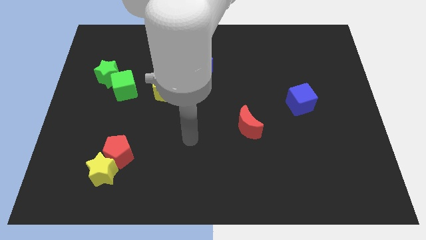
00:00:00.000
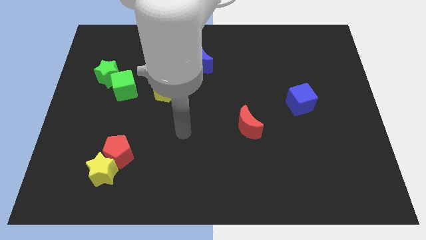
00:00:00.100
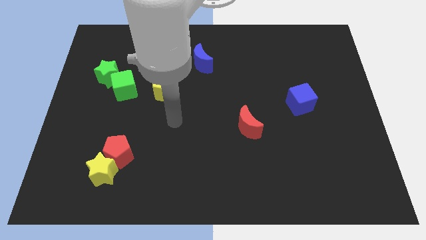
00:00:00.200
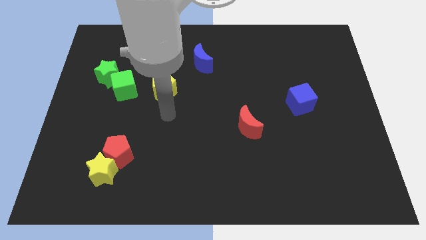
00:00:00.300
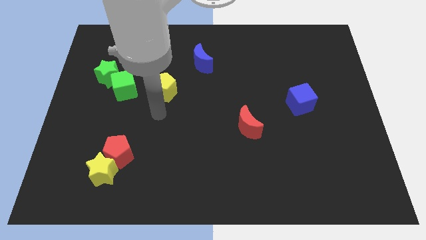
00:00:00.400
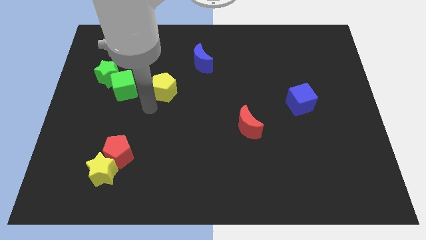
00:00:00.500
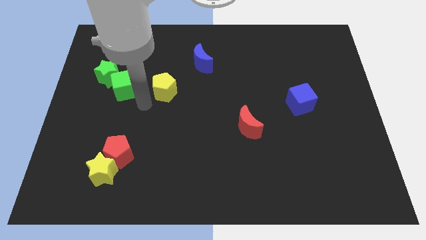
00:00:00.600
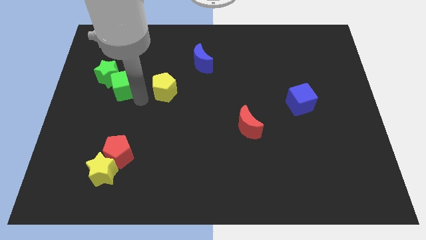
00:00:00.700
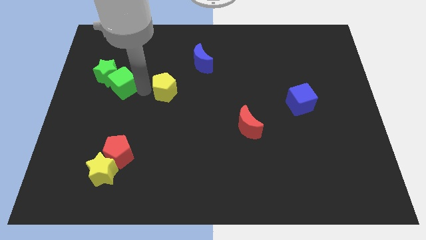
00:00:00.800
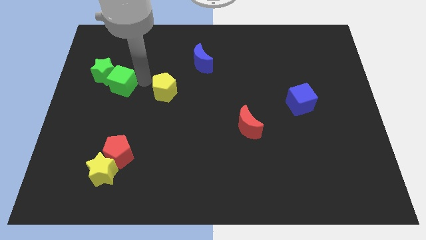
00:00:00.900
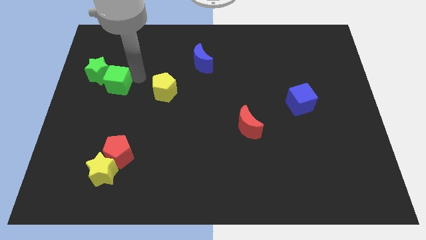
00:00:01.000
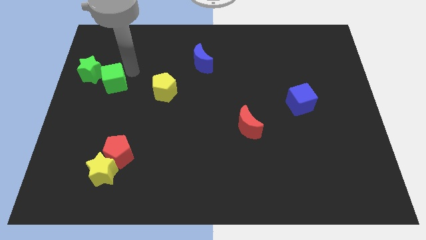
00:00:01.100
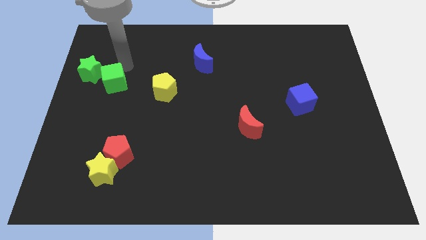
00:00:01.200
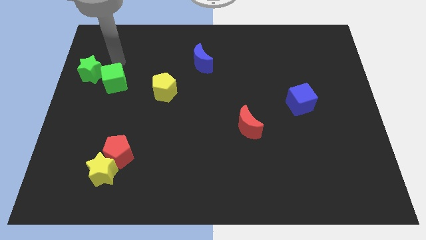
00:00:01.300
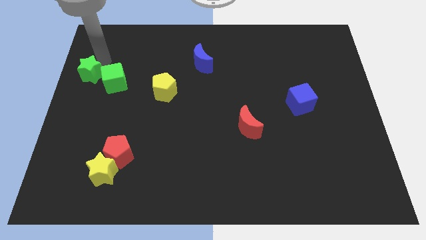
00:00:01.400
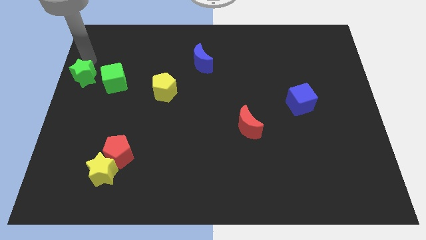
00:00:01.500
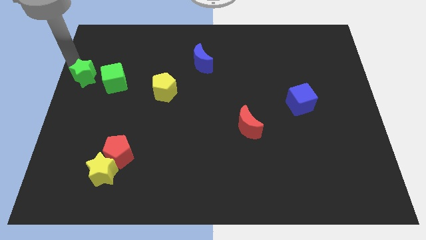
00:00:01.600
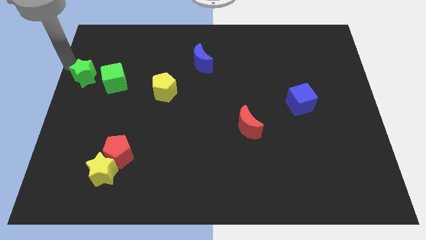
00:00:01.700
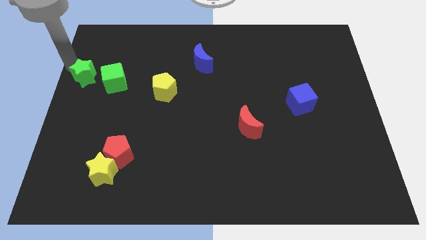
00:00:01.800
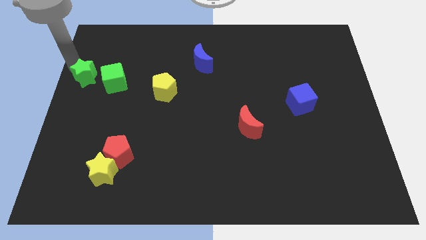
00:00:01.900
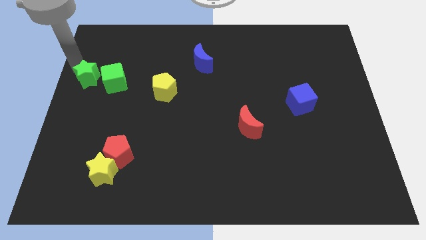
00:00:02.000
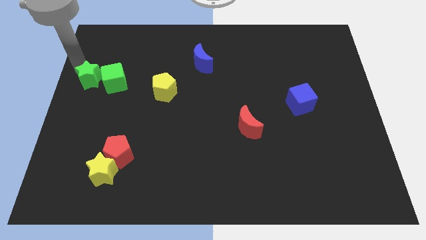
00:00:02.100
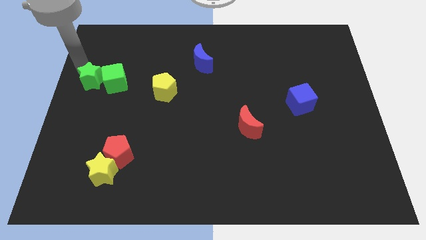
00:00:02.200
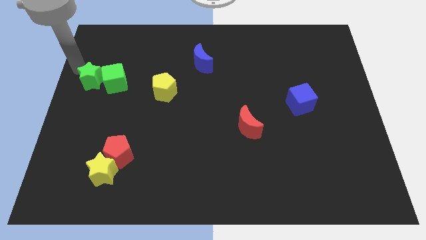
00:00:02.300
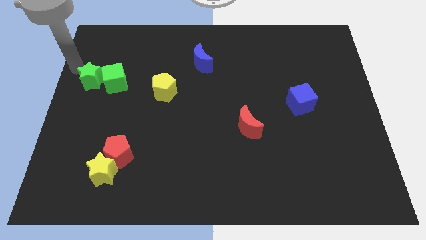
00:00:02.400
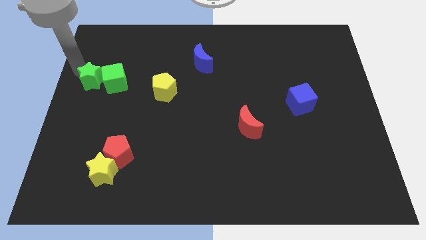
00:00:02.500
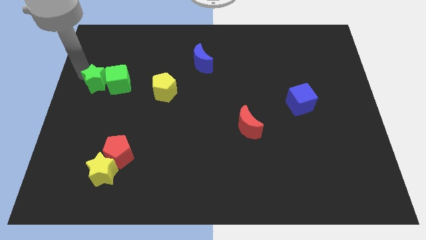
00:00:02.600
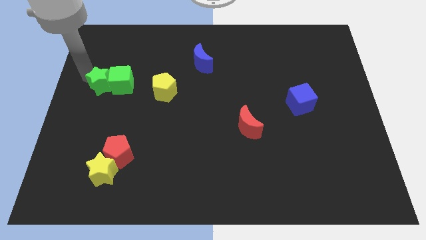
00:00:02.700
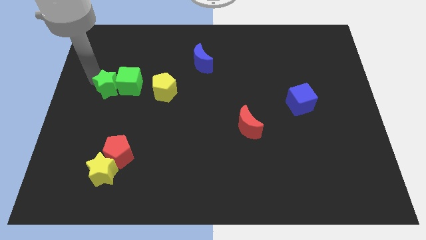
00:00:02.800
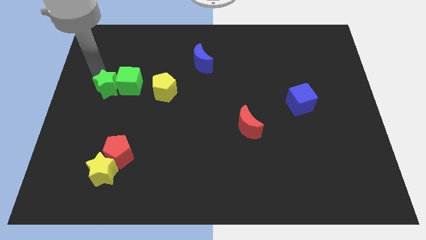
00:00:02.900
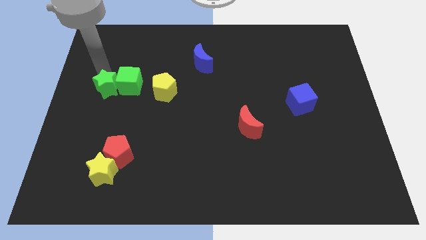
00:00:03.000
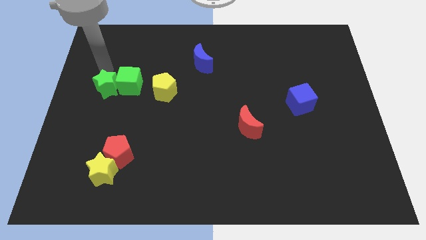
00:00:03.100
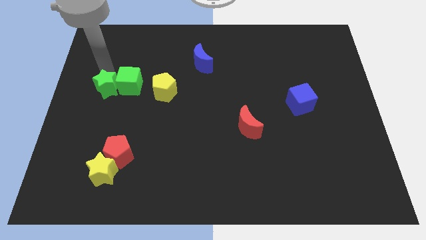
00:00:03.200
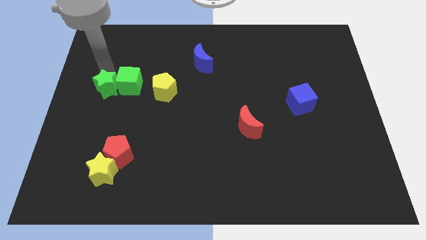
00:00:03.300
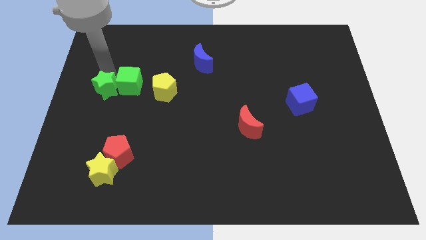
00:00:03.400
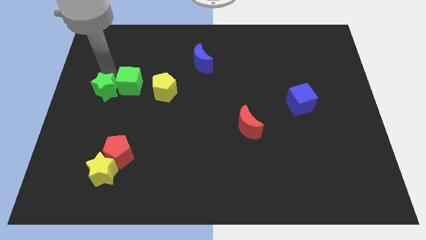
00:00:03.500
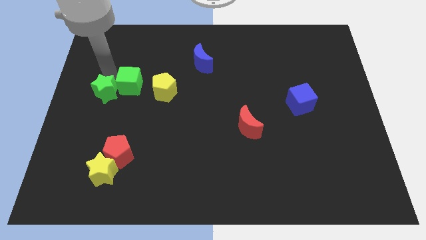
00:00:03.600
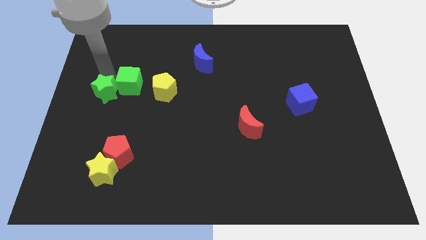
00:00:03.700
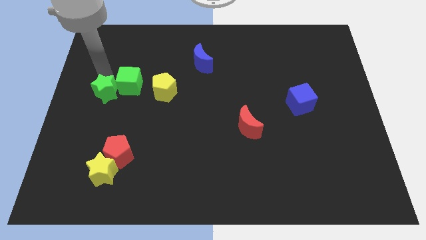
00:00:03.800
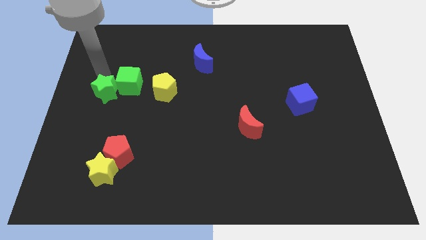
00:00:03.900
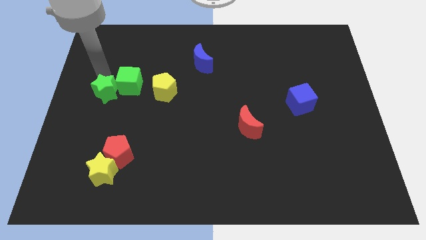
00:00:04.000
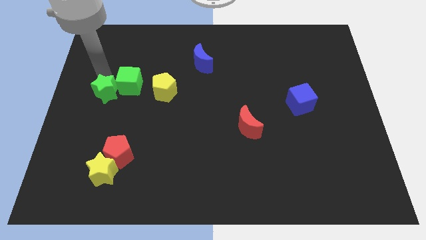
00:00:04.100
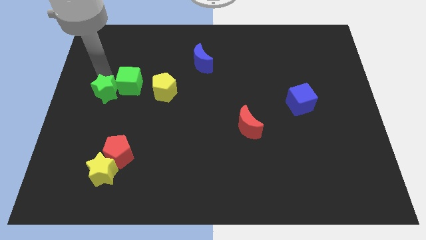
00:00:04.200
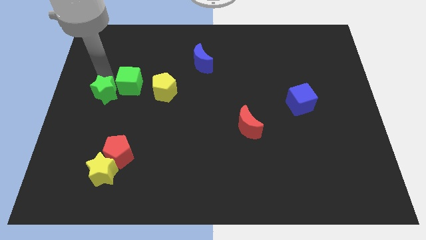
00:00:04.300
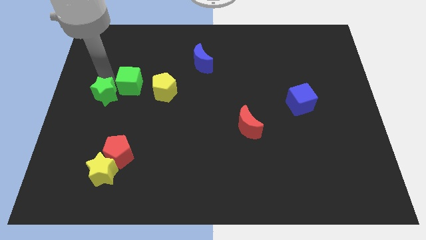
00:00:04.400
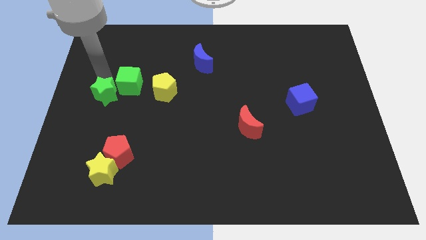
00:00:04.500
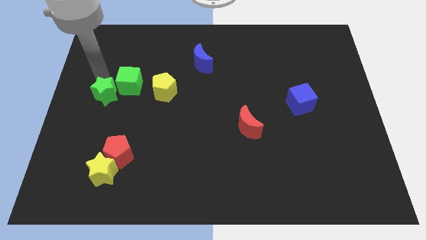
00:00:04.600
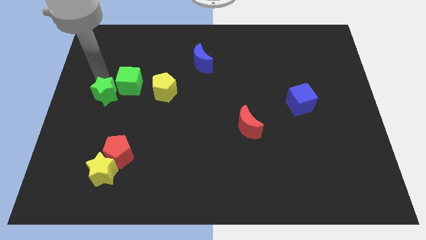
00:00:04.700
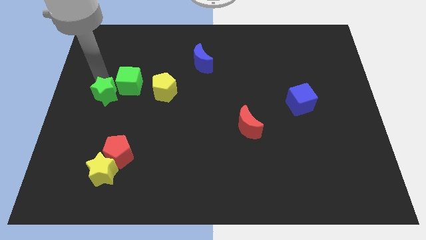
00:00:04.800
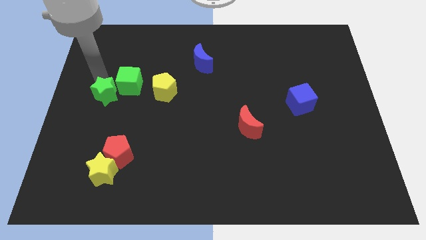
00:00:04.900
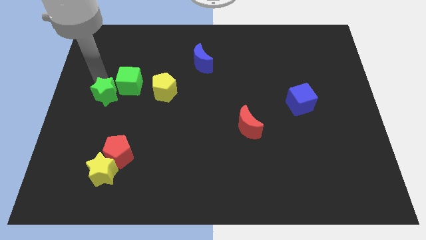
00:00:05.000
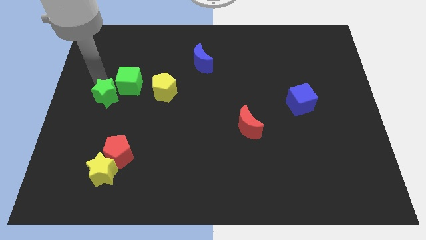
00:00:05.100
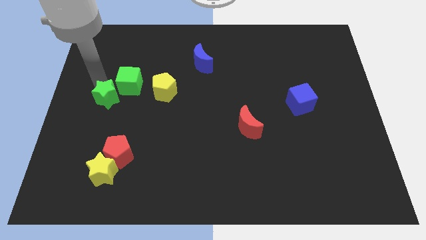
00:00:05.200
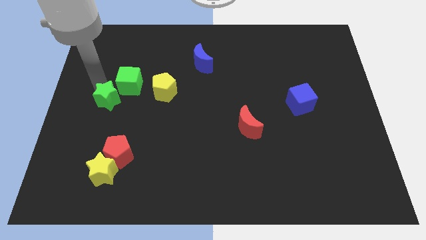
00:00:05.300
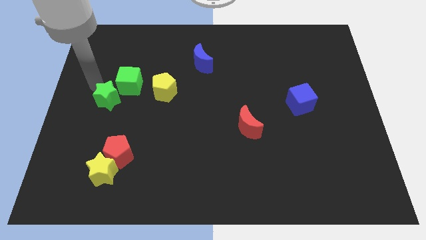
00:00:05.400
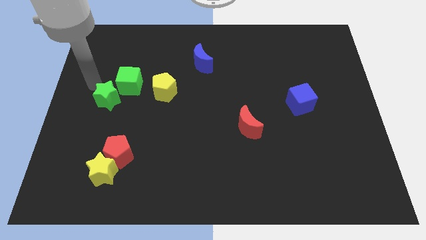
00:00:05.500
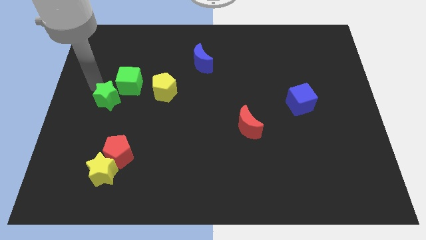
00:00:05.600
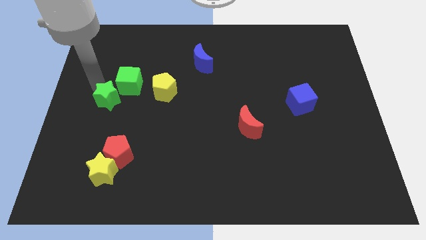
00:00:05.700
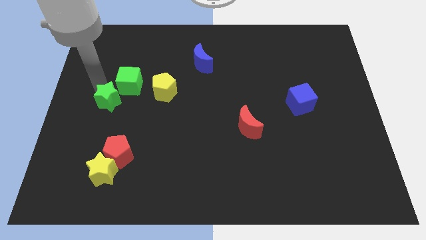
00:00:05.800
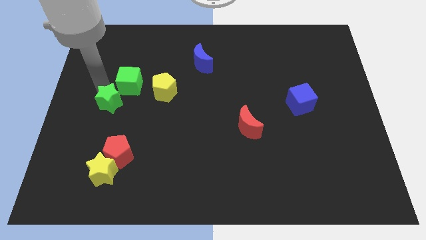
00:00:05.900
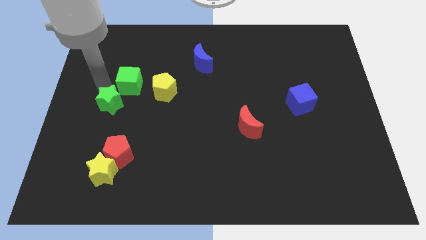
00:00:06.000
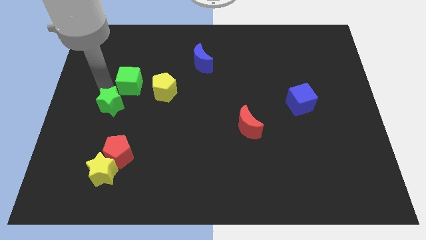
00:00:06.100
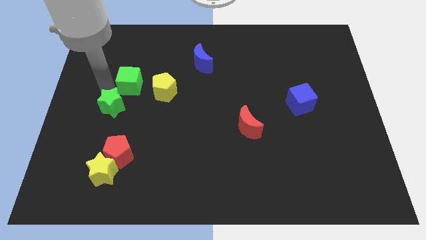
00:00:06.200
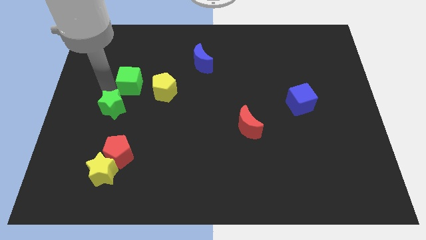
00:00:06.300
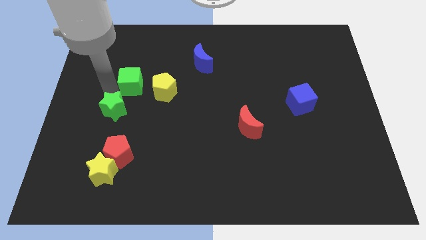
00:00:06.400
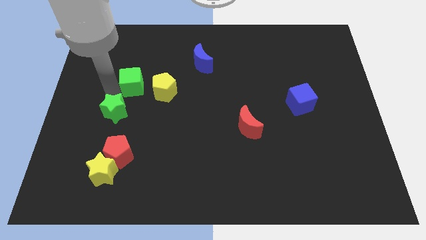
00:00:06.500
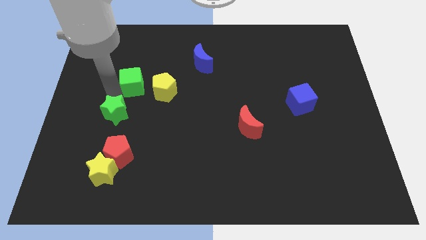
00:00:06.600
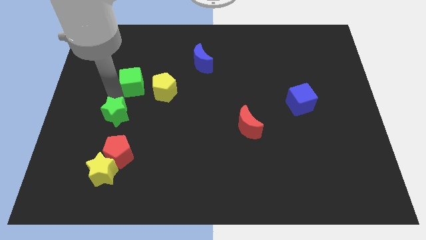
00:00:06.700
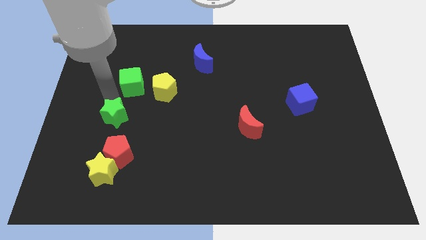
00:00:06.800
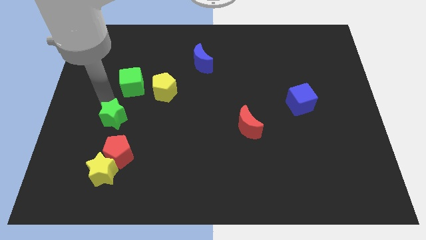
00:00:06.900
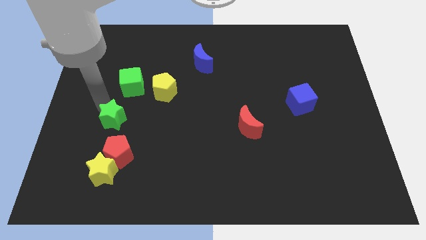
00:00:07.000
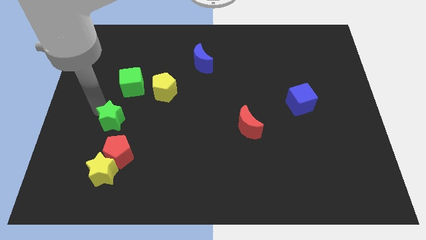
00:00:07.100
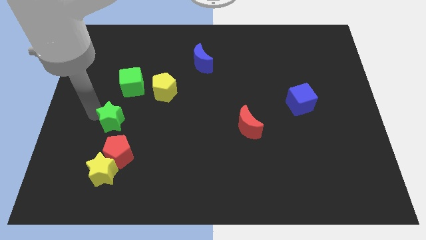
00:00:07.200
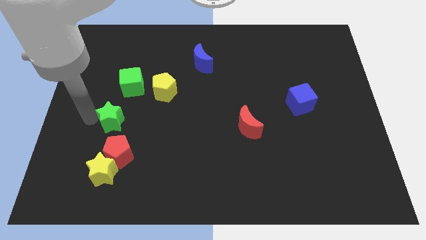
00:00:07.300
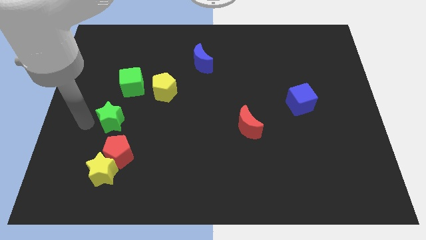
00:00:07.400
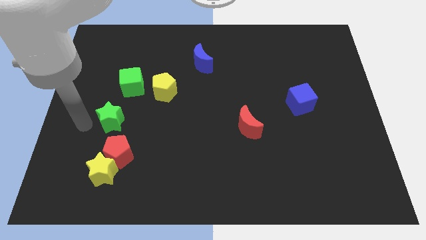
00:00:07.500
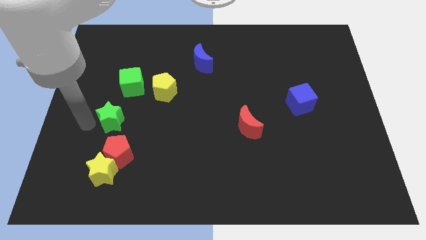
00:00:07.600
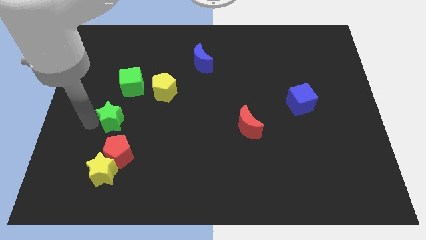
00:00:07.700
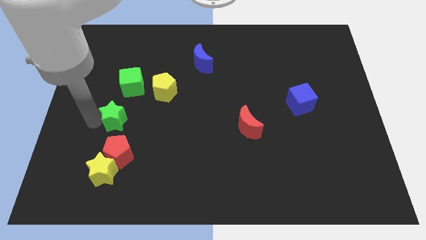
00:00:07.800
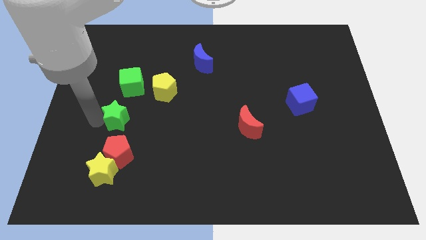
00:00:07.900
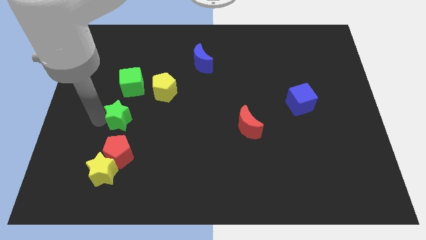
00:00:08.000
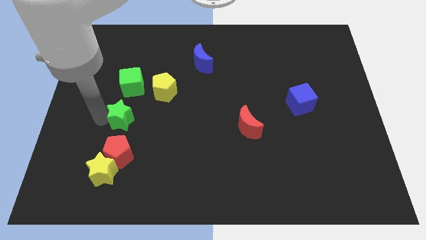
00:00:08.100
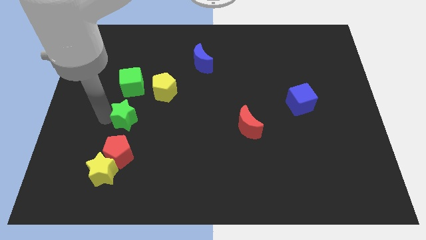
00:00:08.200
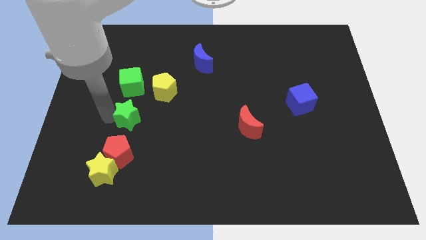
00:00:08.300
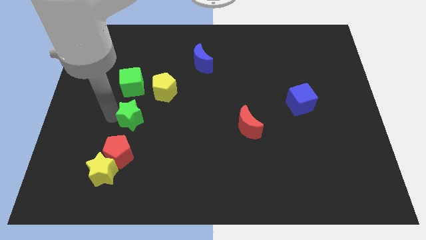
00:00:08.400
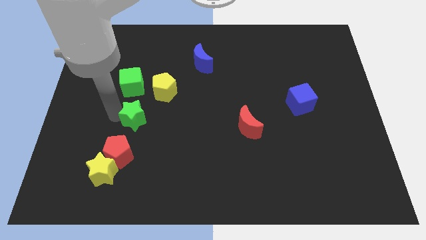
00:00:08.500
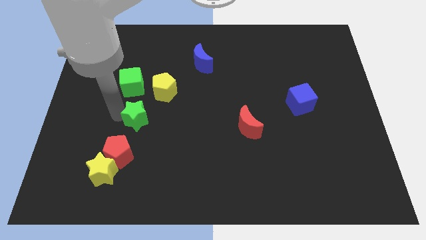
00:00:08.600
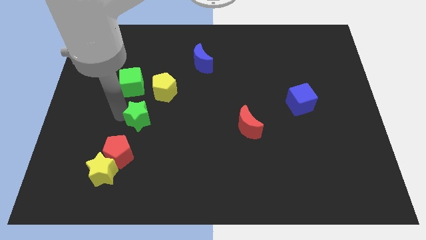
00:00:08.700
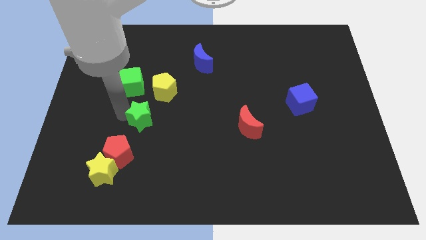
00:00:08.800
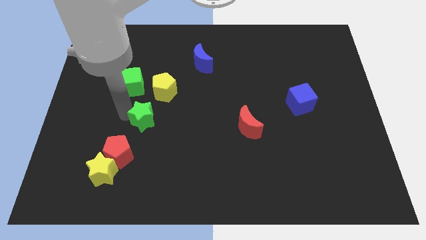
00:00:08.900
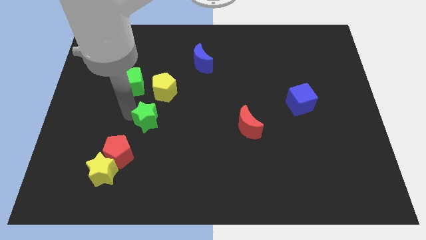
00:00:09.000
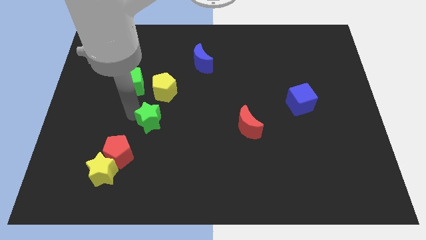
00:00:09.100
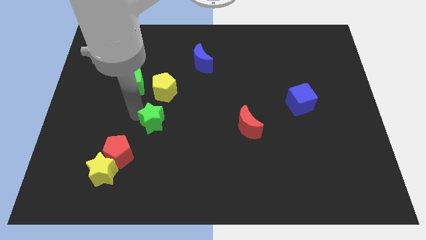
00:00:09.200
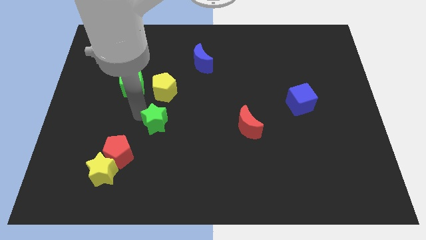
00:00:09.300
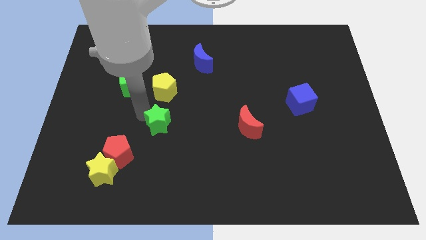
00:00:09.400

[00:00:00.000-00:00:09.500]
move the green star downwards and right
